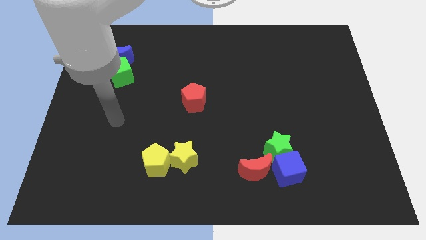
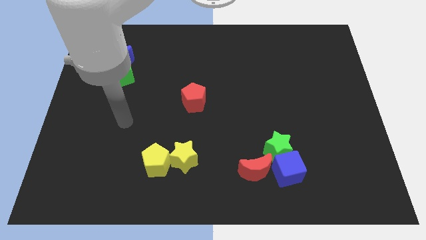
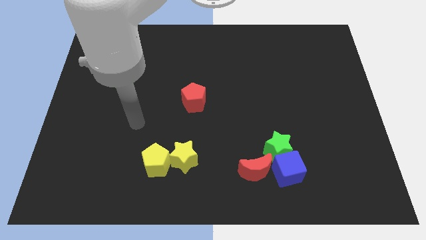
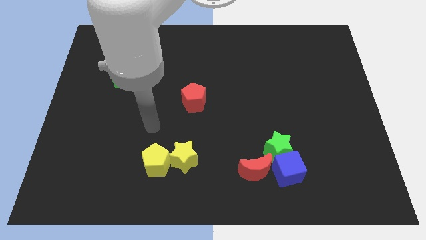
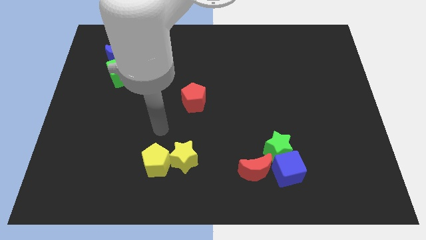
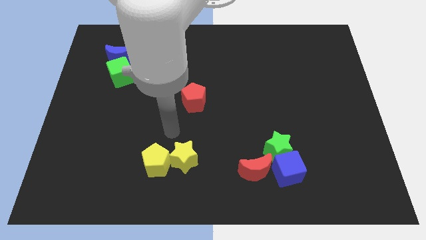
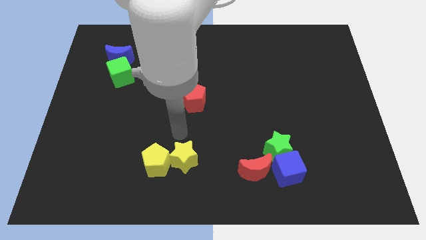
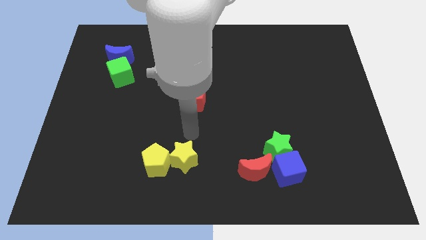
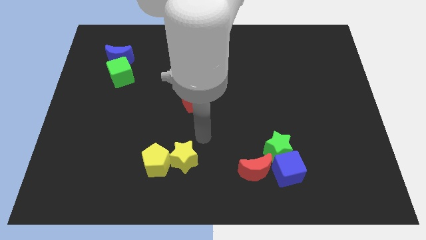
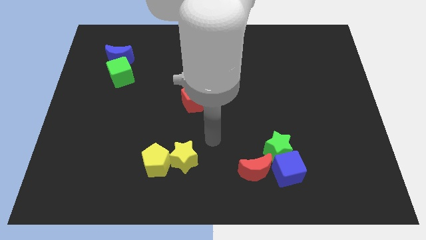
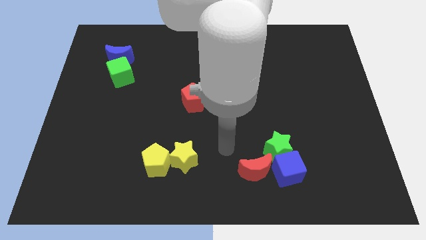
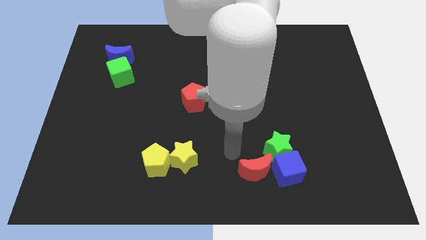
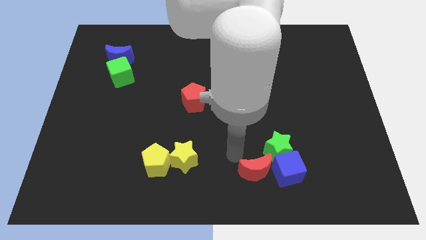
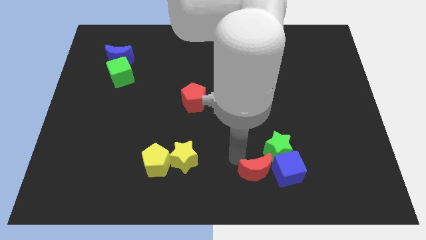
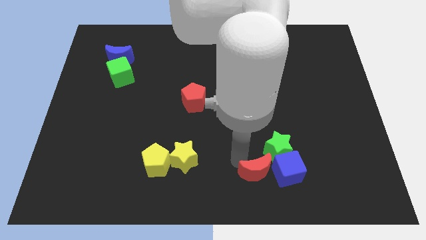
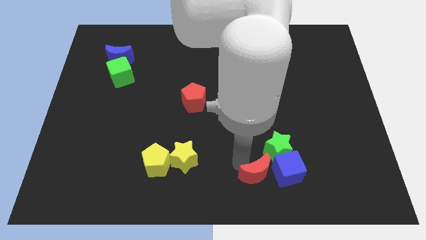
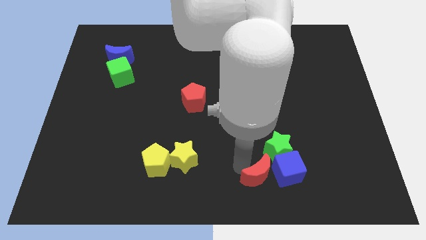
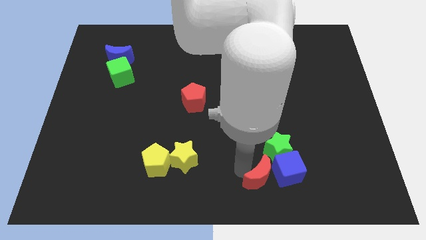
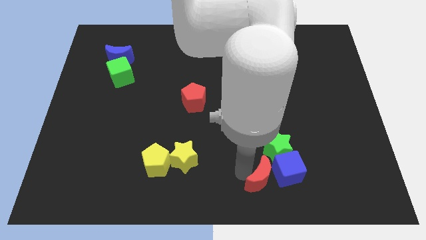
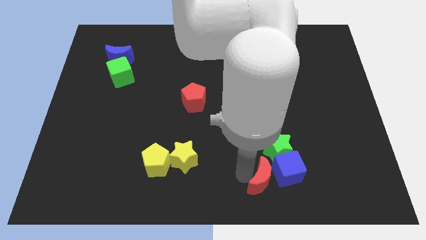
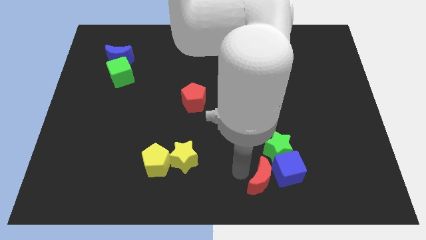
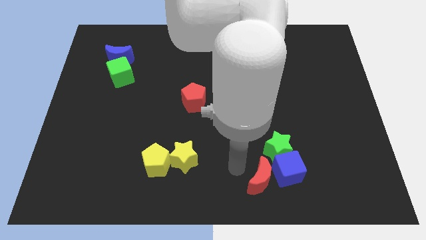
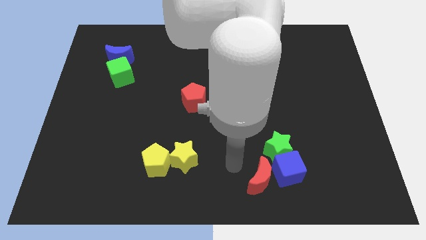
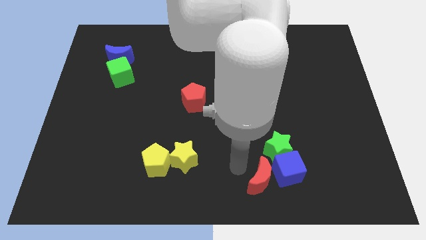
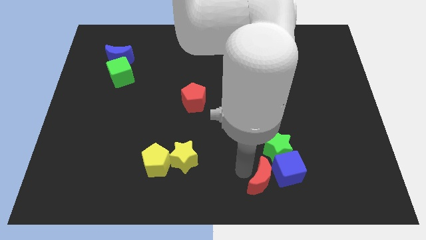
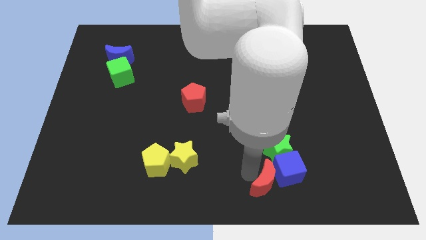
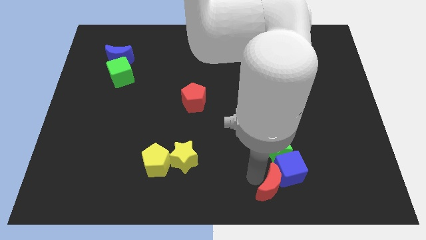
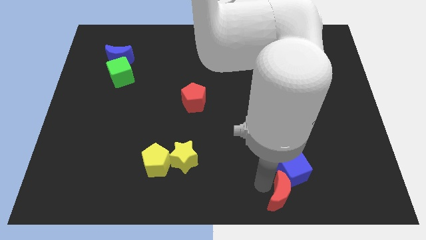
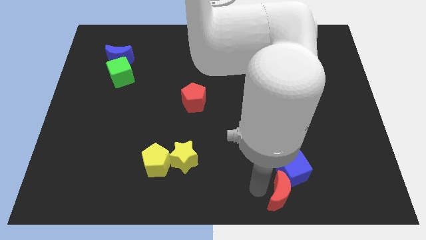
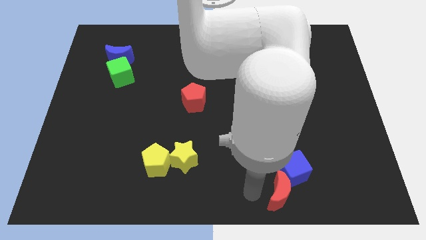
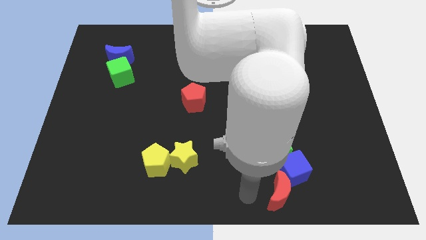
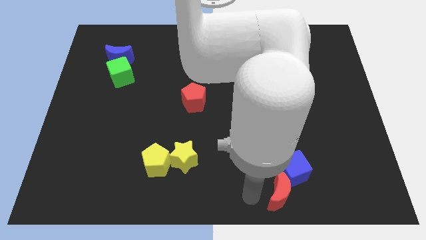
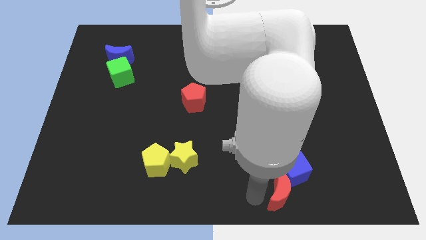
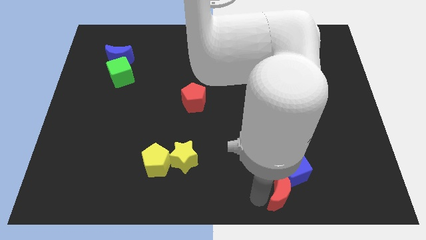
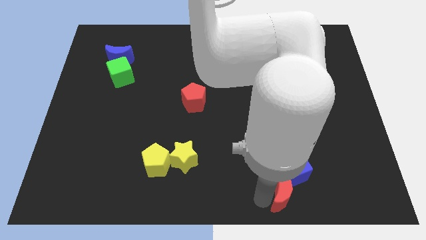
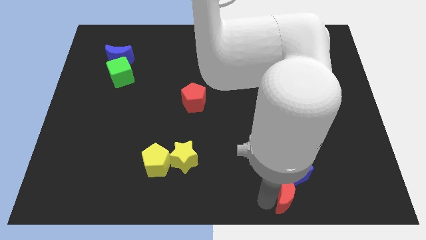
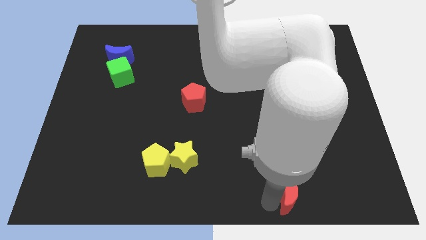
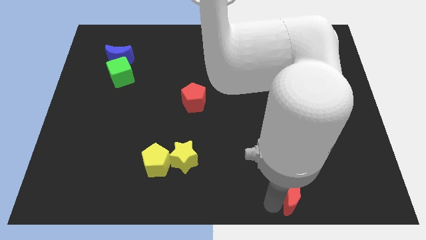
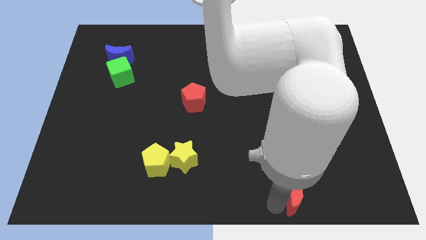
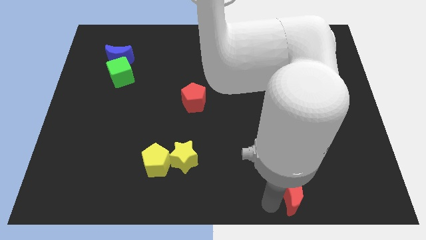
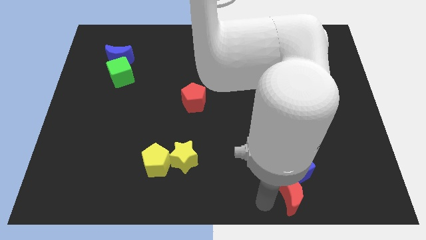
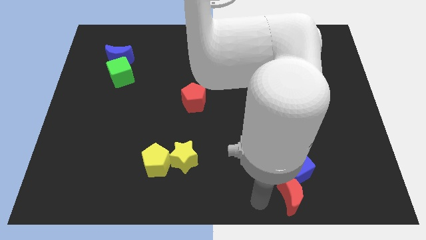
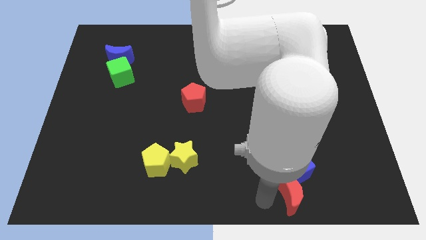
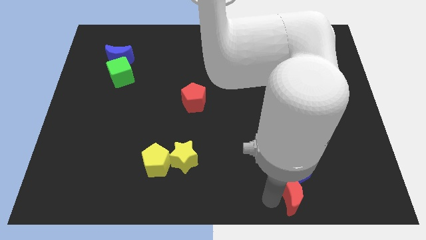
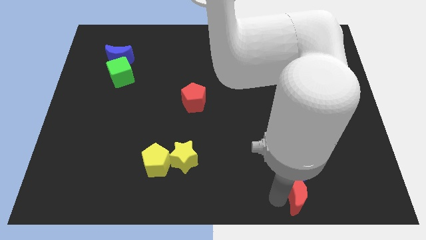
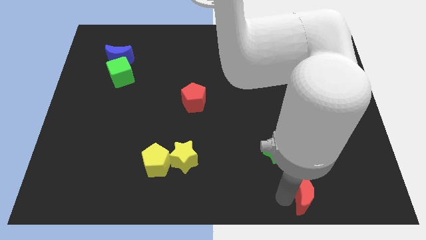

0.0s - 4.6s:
move the red moon right somewhat

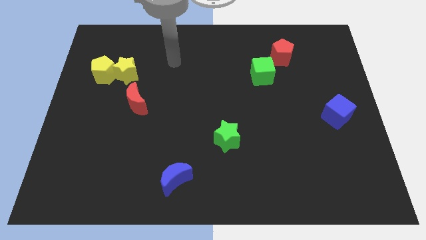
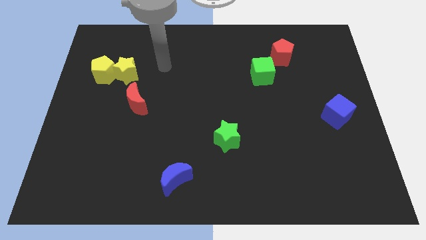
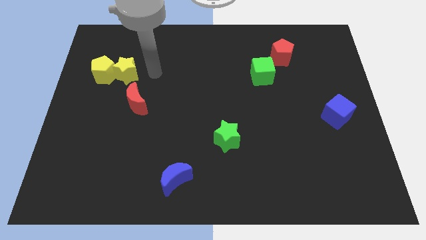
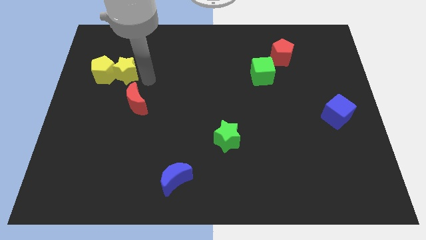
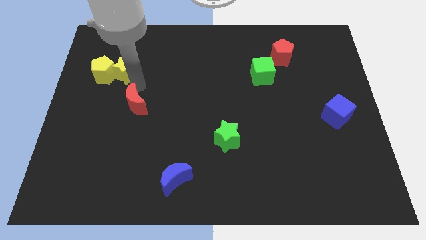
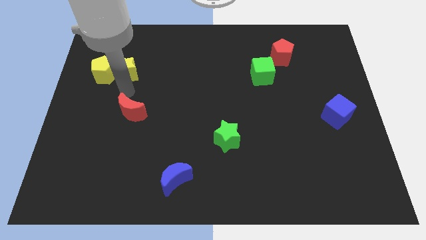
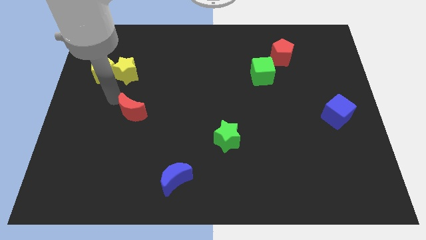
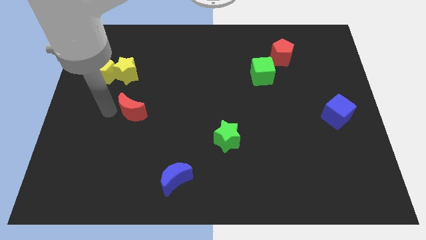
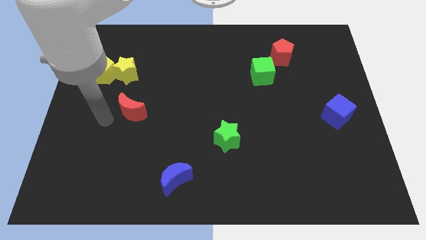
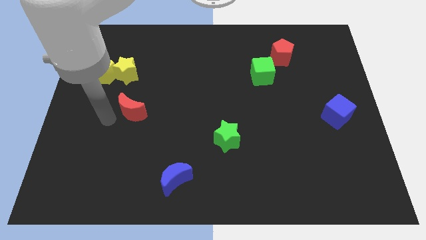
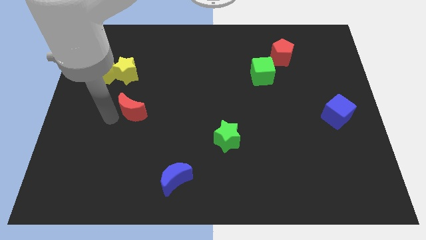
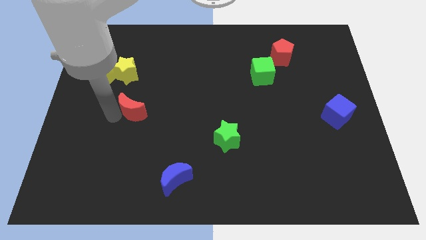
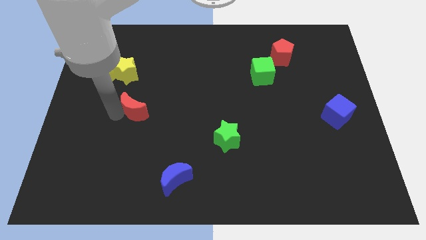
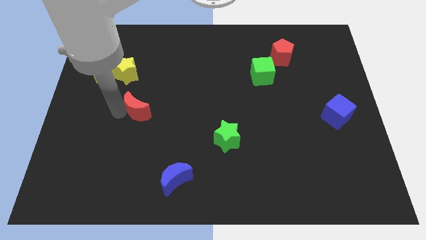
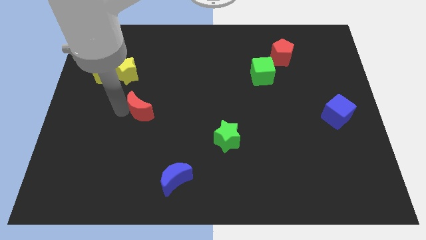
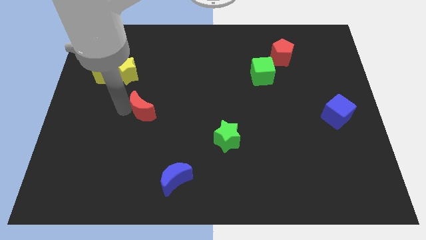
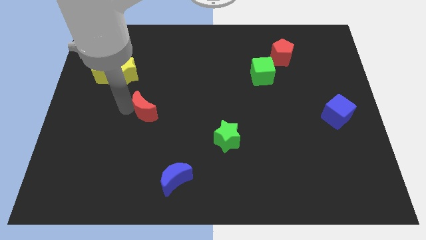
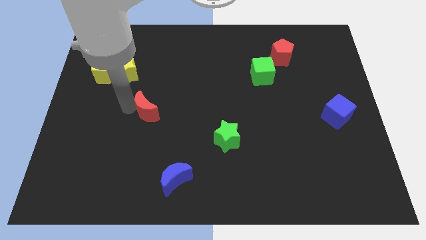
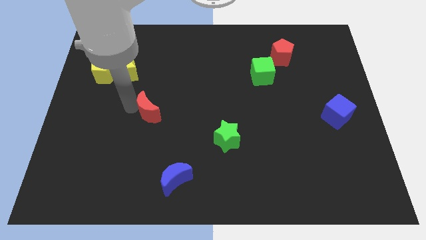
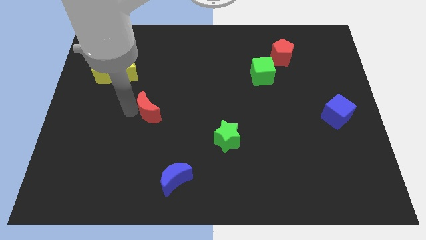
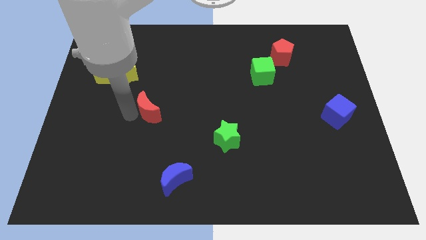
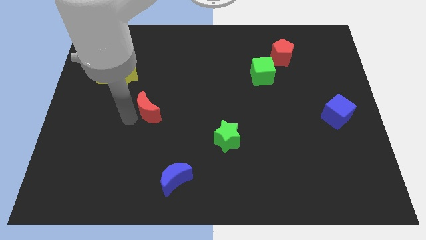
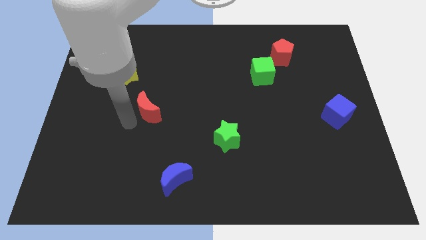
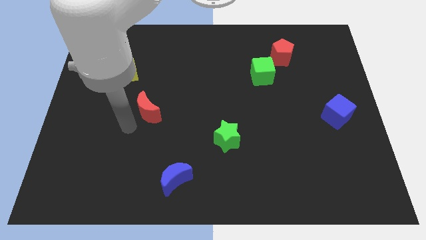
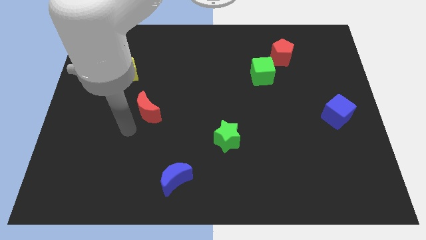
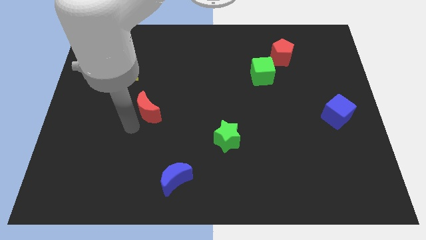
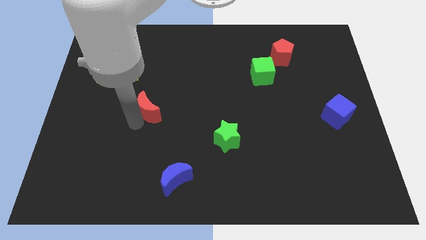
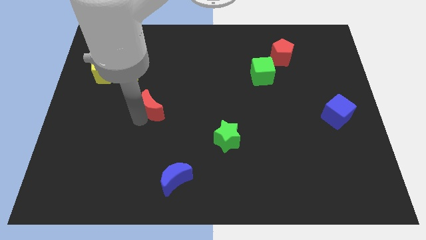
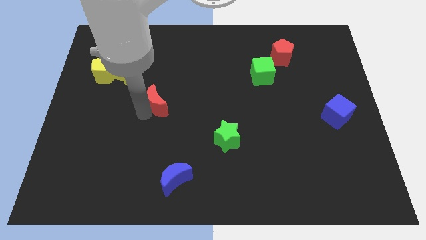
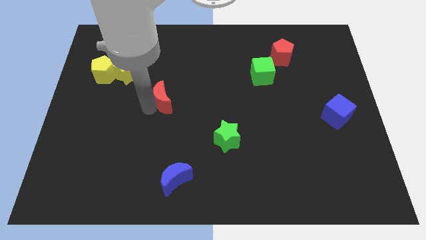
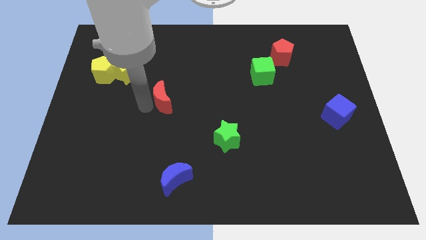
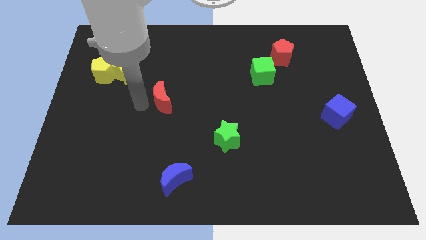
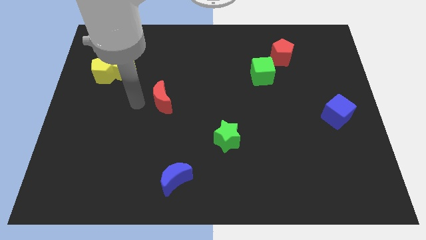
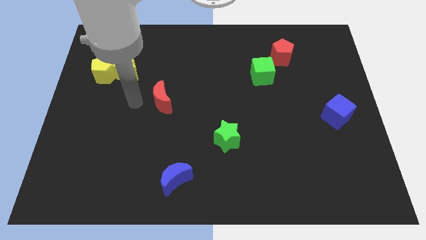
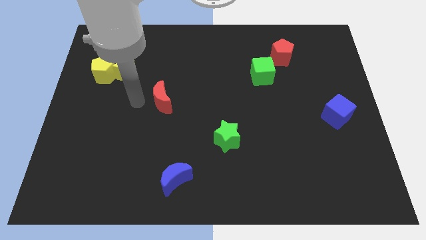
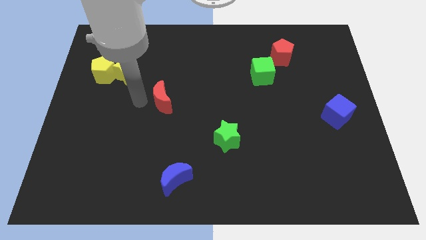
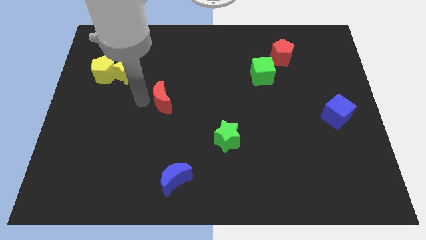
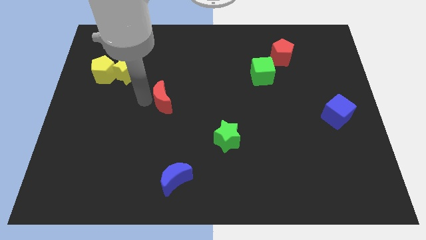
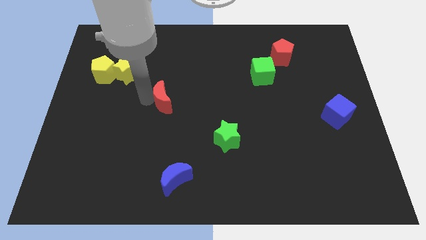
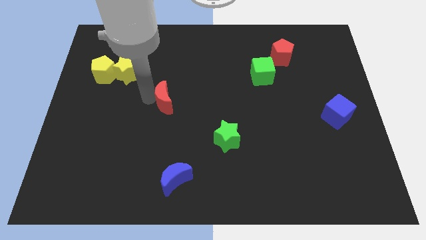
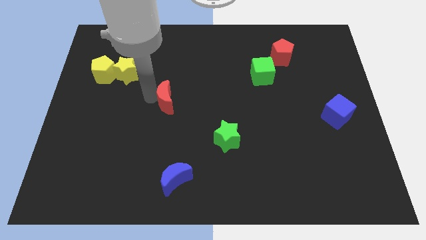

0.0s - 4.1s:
push the red moon to the right slightly
